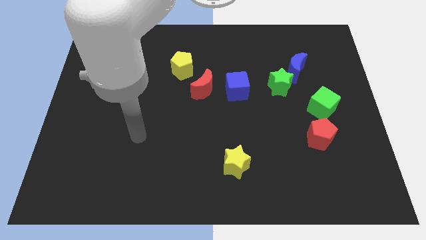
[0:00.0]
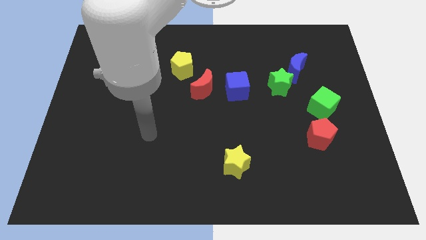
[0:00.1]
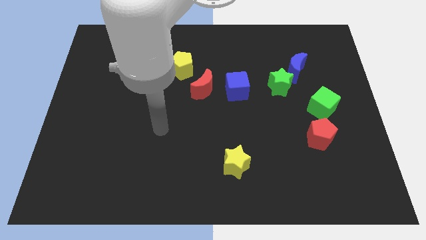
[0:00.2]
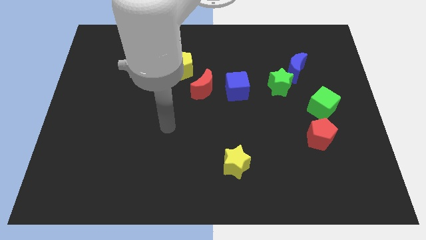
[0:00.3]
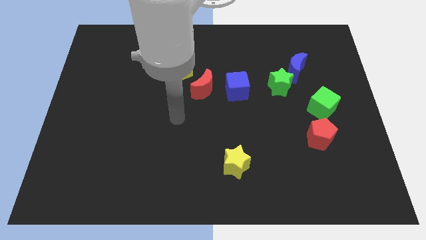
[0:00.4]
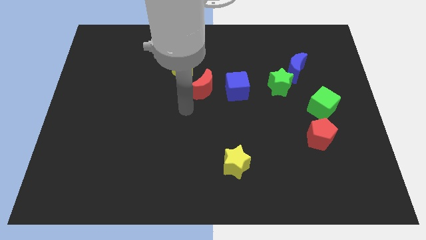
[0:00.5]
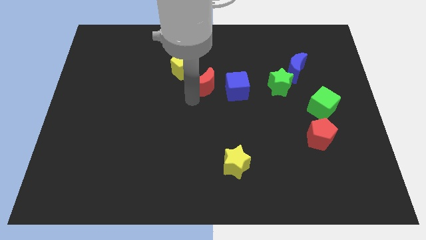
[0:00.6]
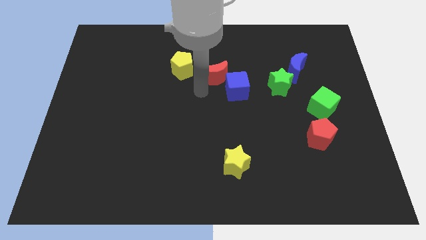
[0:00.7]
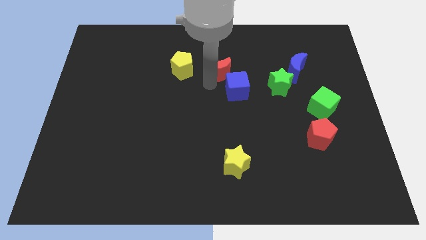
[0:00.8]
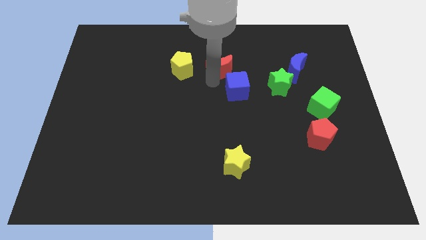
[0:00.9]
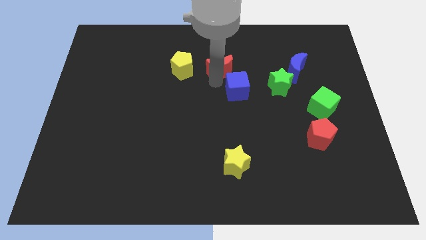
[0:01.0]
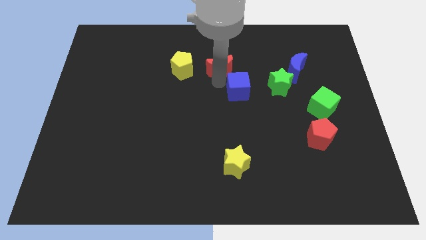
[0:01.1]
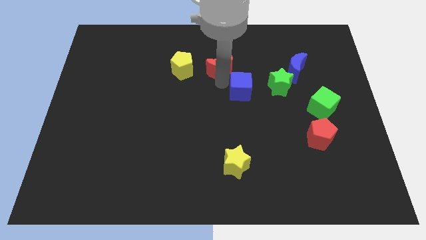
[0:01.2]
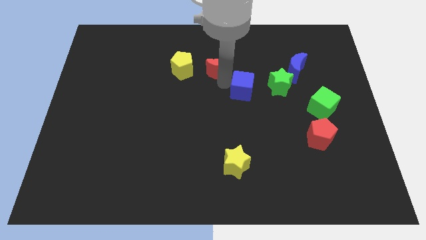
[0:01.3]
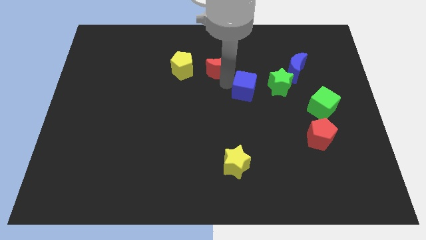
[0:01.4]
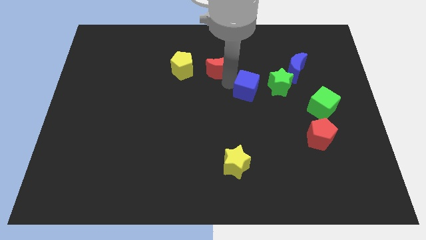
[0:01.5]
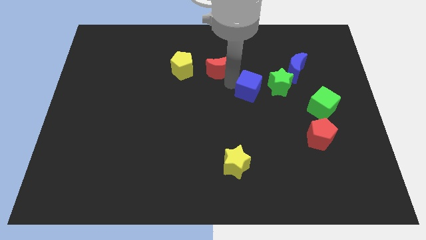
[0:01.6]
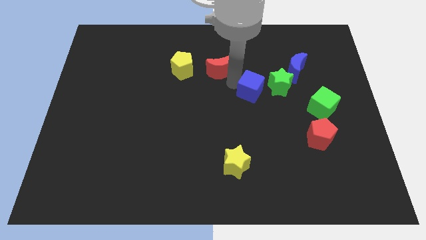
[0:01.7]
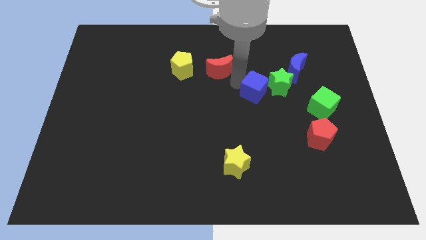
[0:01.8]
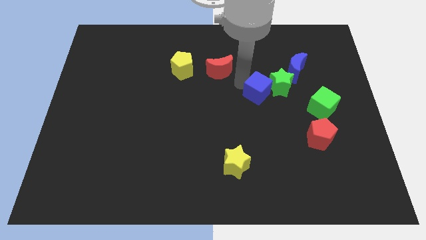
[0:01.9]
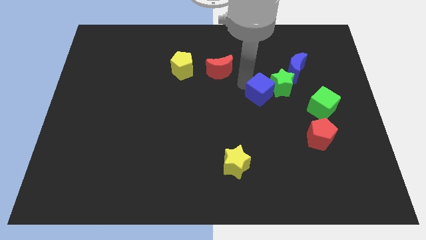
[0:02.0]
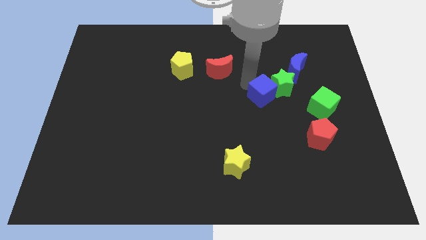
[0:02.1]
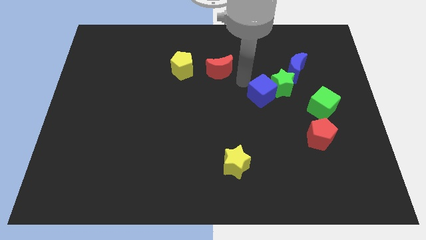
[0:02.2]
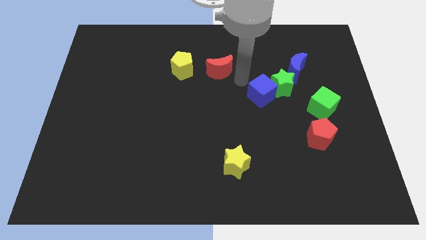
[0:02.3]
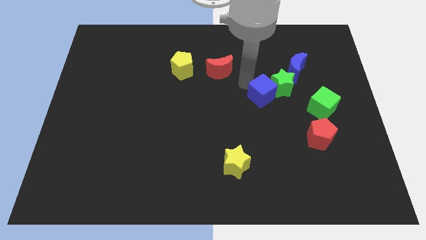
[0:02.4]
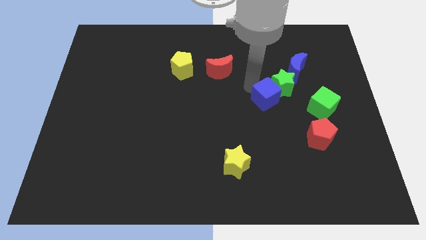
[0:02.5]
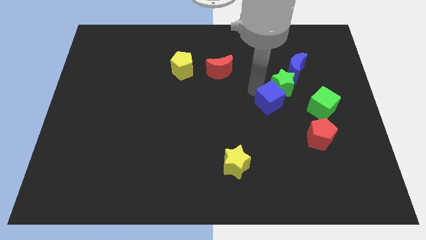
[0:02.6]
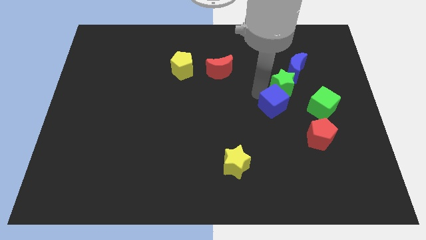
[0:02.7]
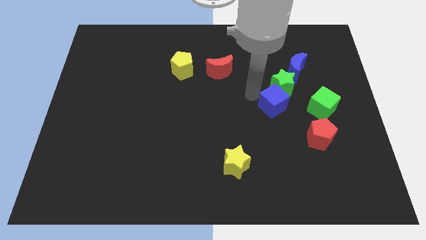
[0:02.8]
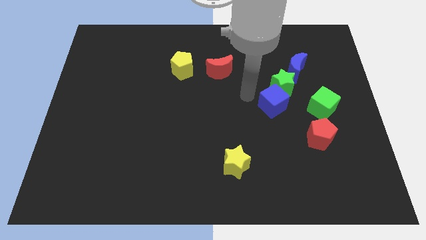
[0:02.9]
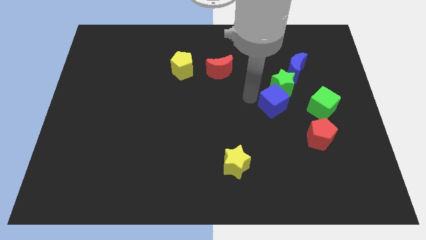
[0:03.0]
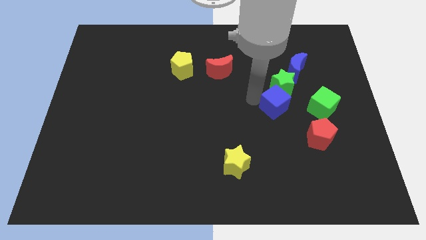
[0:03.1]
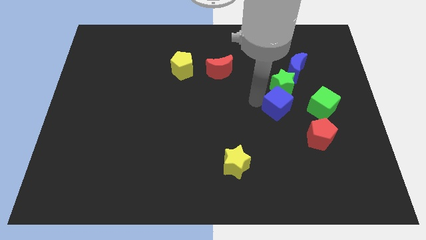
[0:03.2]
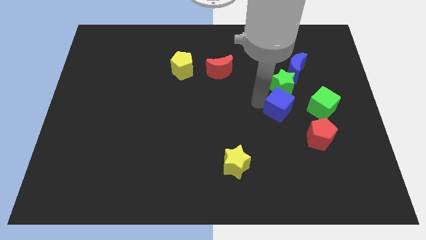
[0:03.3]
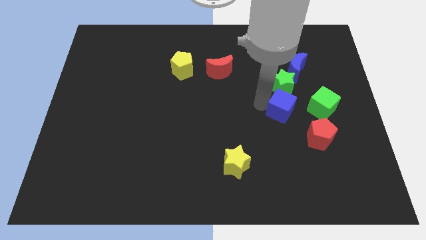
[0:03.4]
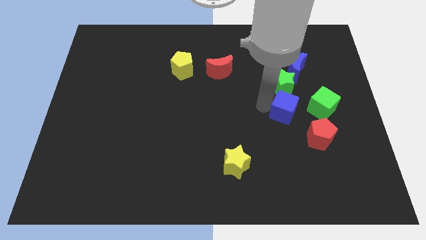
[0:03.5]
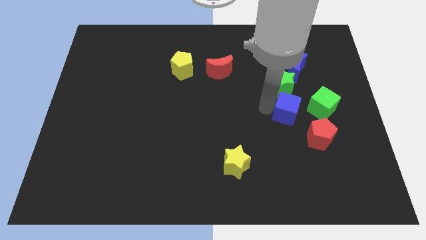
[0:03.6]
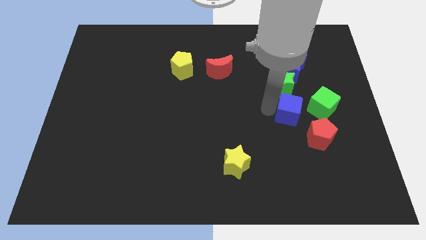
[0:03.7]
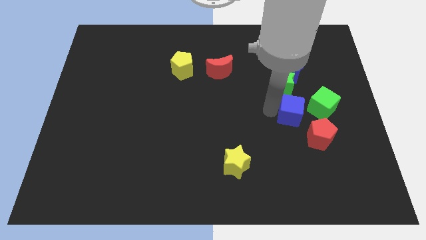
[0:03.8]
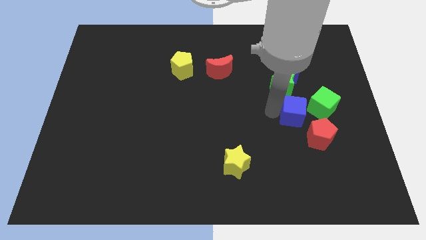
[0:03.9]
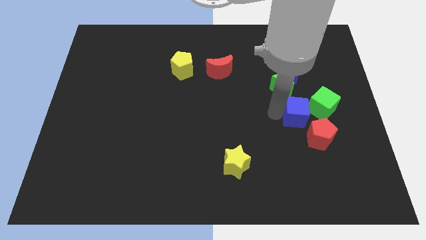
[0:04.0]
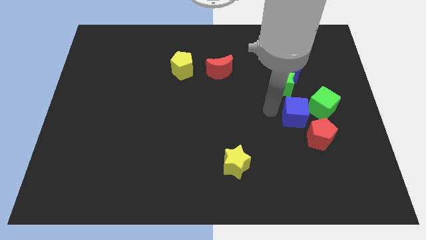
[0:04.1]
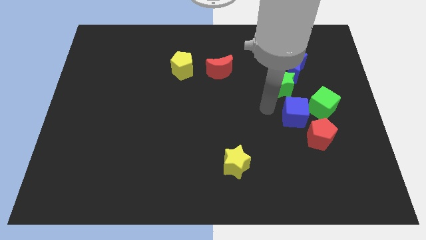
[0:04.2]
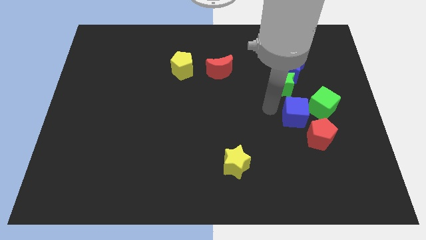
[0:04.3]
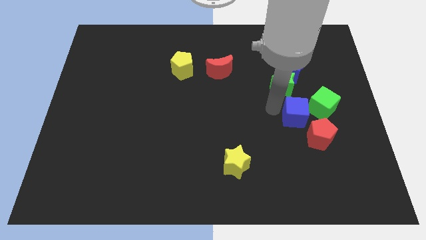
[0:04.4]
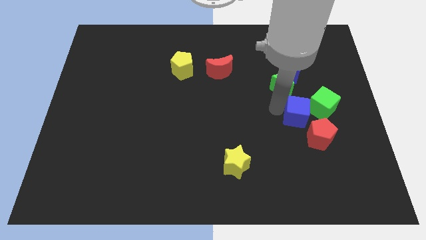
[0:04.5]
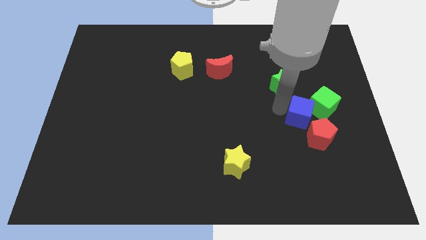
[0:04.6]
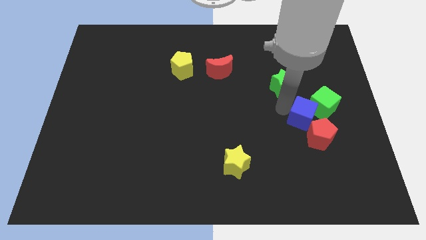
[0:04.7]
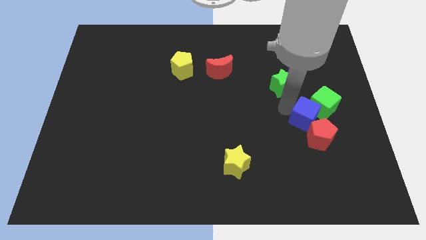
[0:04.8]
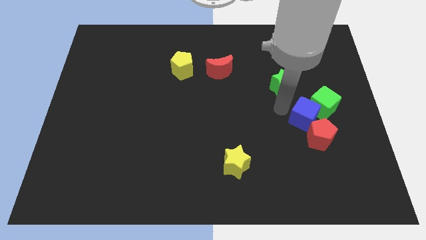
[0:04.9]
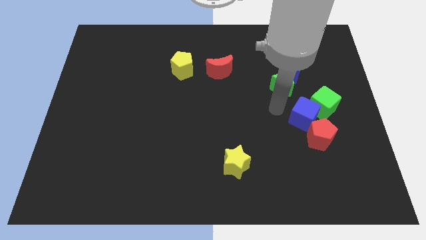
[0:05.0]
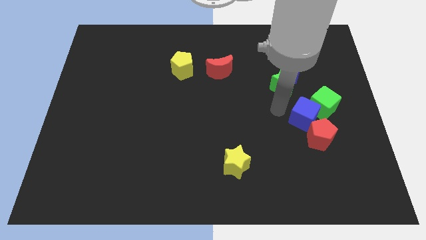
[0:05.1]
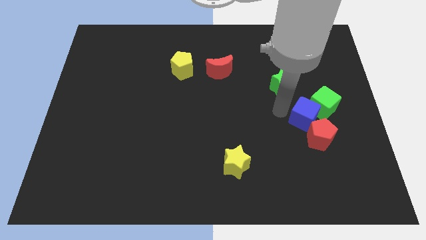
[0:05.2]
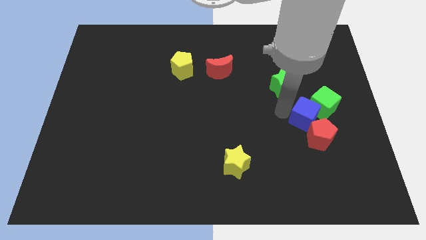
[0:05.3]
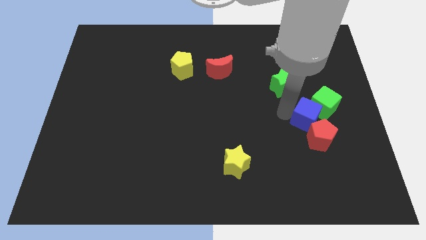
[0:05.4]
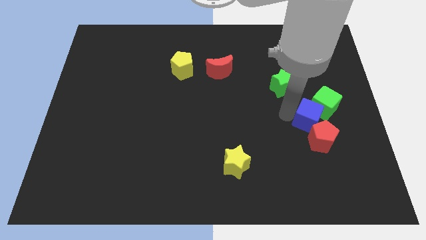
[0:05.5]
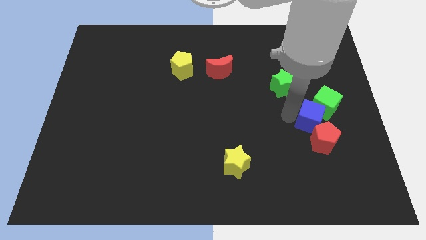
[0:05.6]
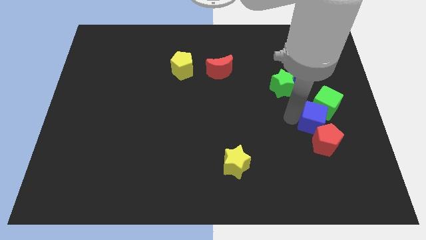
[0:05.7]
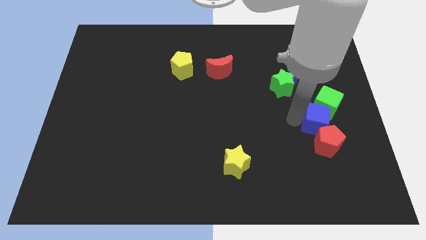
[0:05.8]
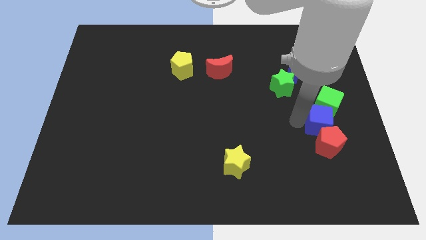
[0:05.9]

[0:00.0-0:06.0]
put the blue cube diagonally up and to the right of the red pentagon

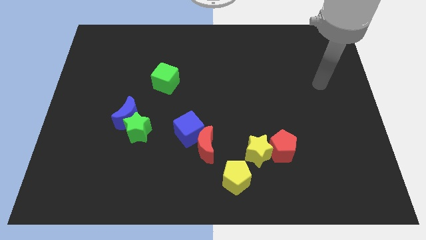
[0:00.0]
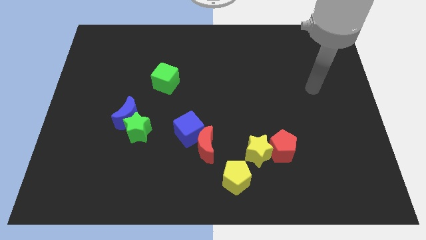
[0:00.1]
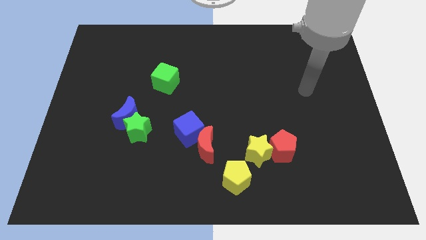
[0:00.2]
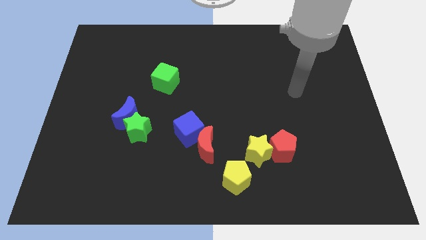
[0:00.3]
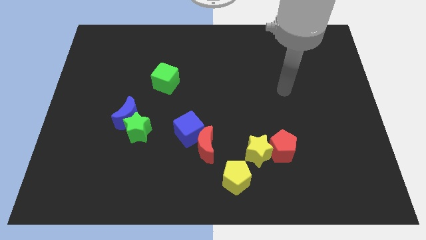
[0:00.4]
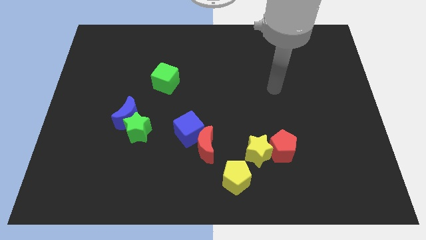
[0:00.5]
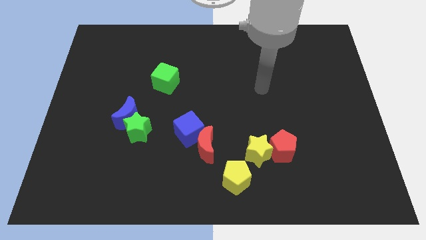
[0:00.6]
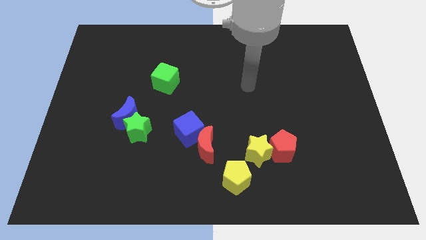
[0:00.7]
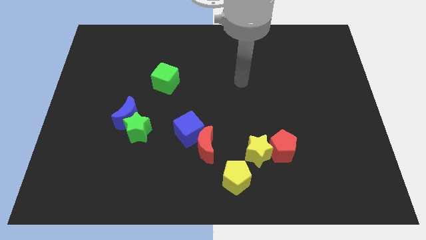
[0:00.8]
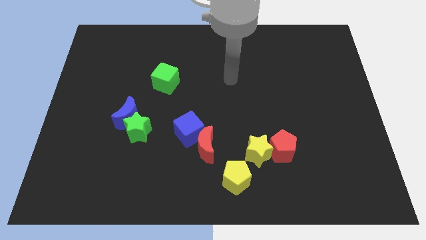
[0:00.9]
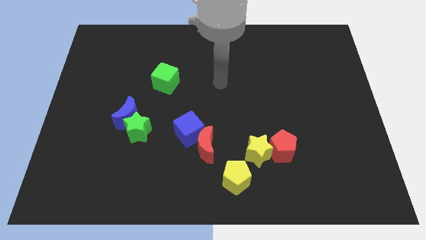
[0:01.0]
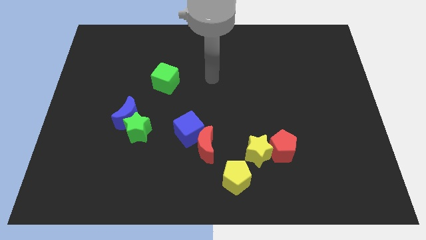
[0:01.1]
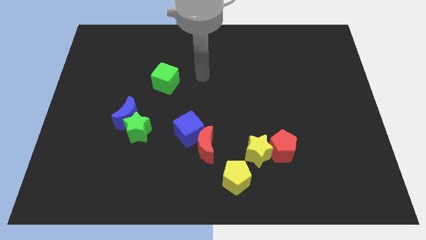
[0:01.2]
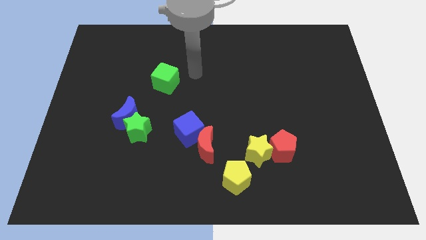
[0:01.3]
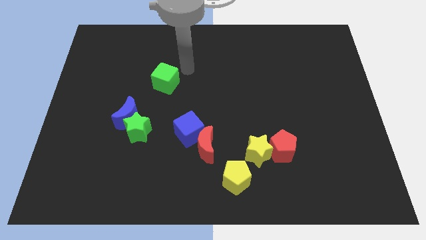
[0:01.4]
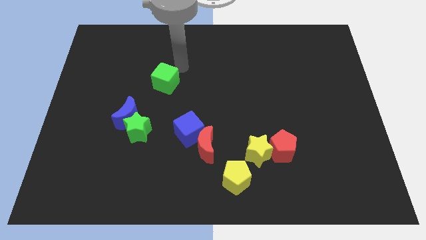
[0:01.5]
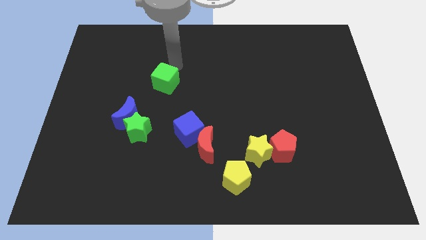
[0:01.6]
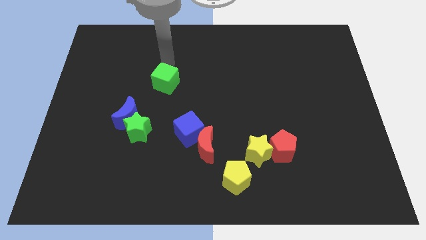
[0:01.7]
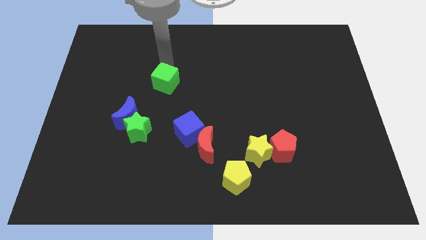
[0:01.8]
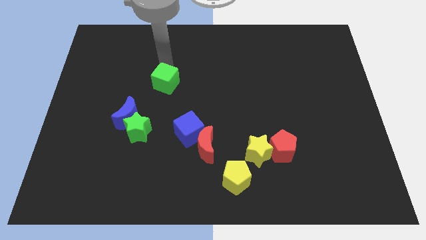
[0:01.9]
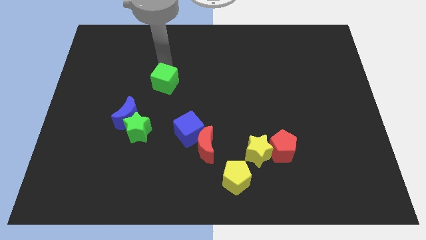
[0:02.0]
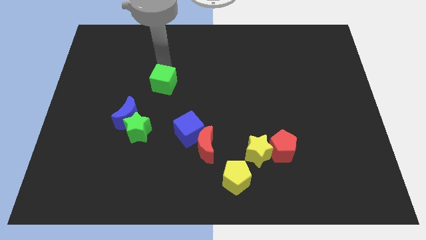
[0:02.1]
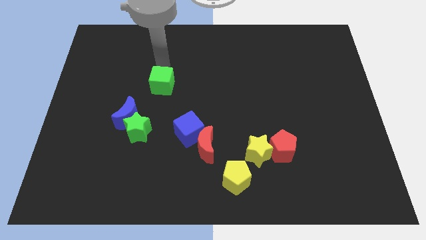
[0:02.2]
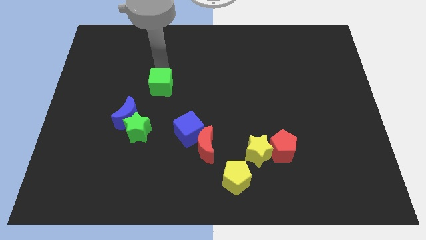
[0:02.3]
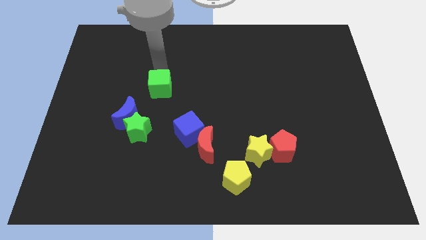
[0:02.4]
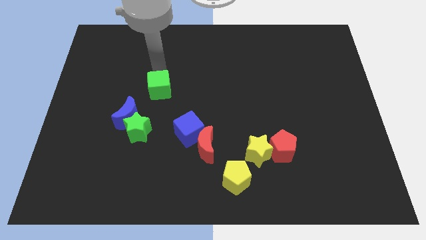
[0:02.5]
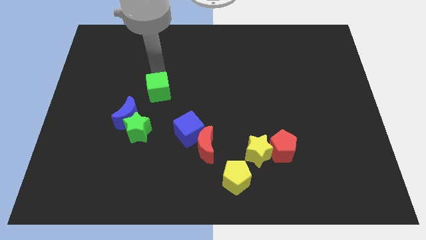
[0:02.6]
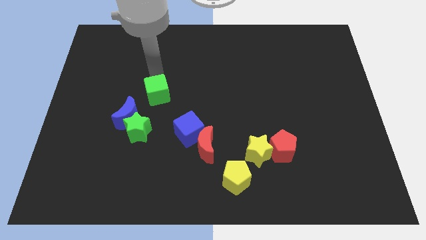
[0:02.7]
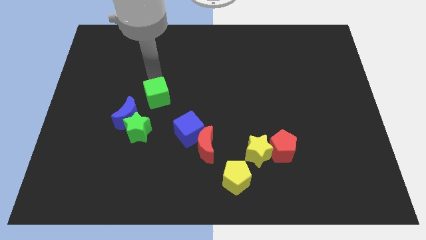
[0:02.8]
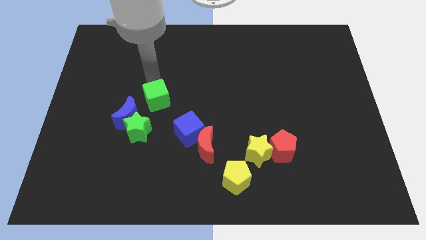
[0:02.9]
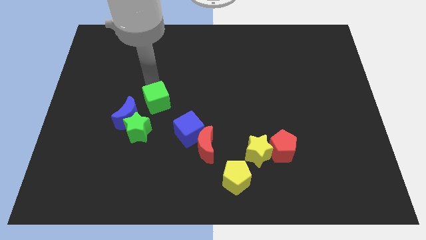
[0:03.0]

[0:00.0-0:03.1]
move the green cube right of the blue moon
